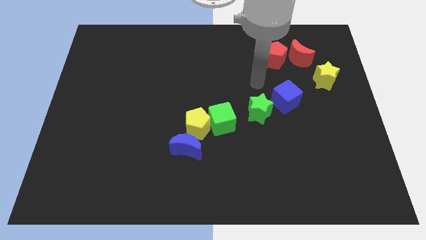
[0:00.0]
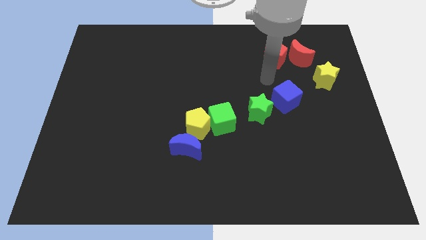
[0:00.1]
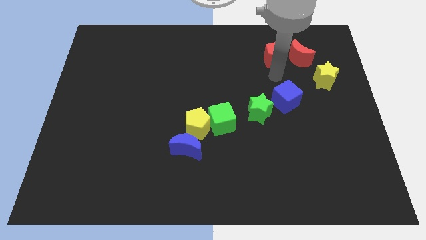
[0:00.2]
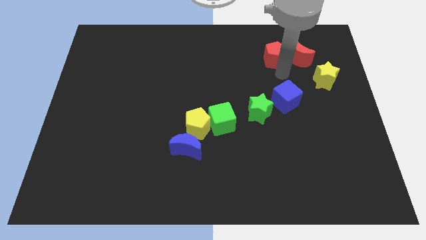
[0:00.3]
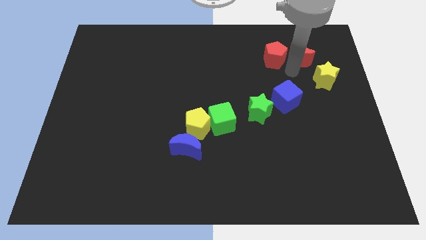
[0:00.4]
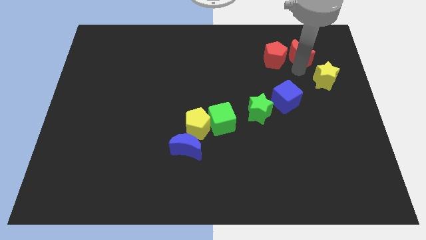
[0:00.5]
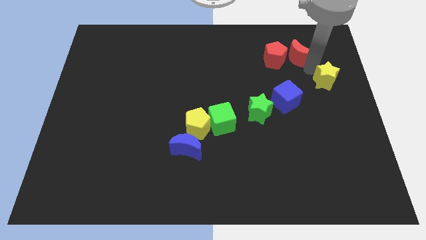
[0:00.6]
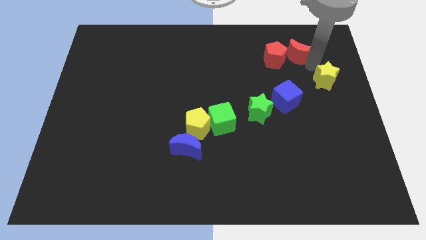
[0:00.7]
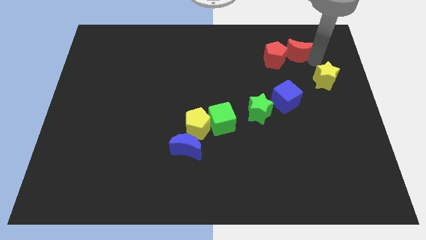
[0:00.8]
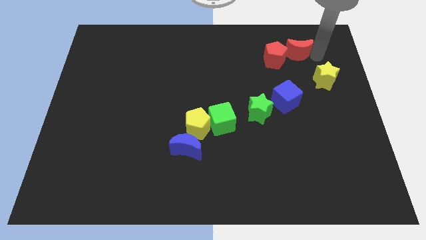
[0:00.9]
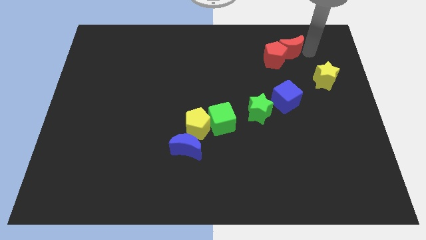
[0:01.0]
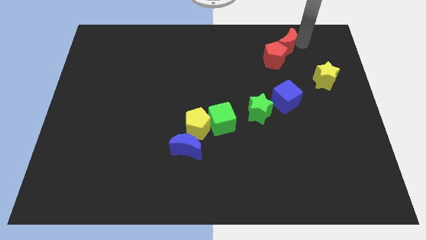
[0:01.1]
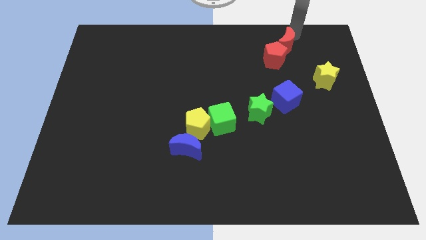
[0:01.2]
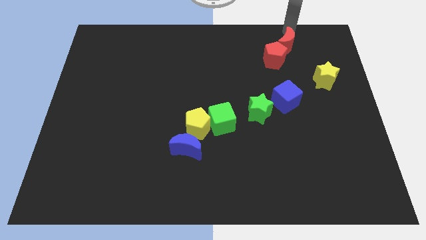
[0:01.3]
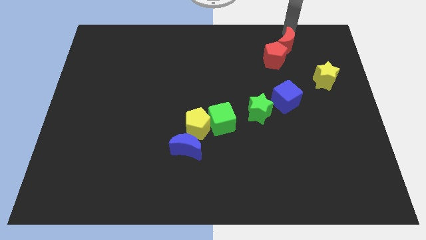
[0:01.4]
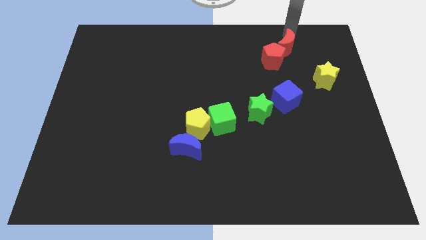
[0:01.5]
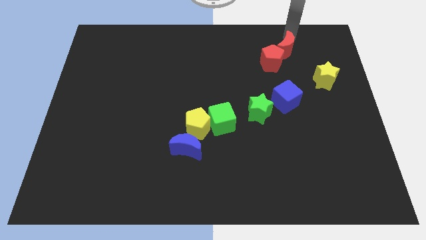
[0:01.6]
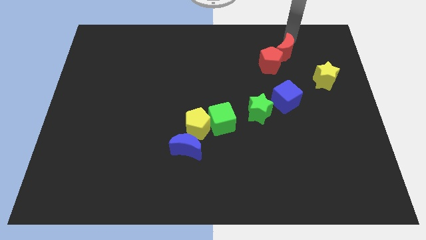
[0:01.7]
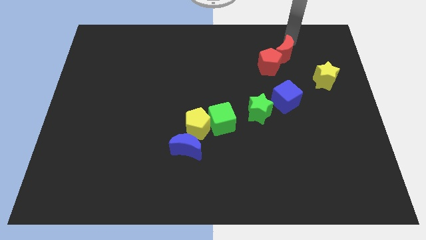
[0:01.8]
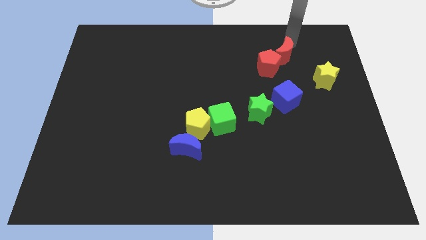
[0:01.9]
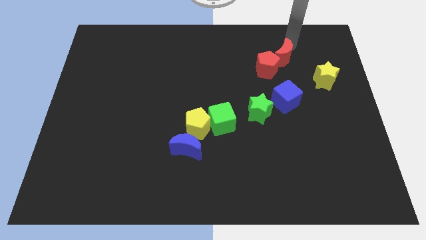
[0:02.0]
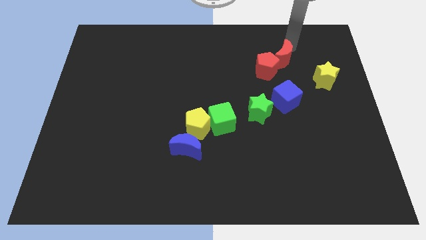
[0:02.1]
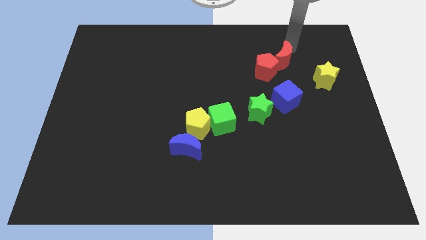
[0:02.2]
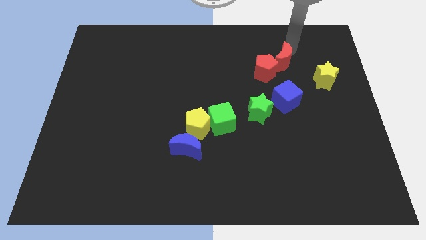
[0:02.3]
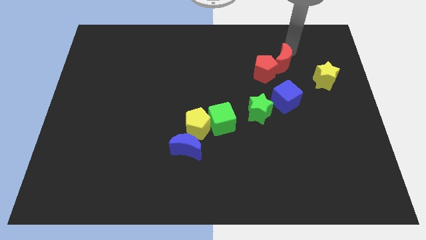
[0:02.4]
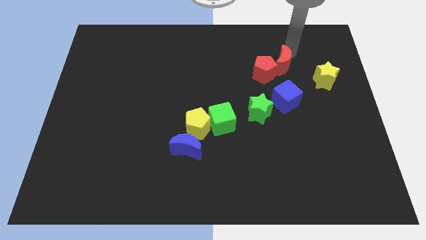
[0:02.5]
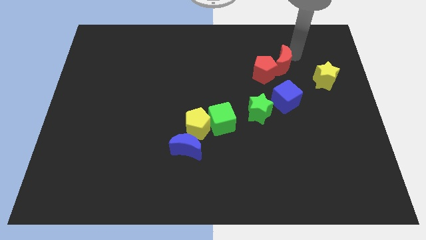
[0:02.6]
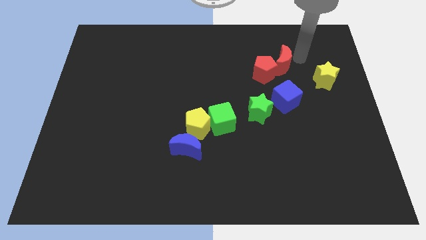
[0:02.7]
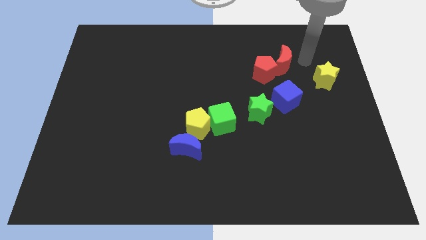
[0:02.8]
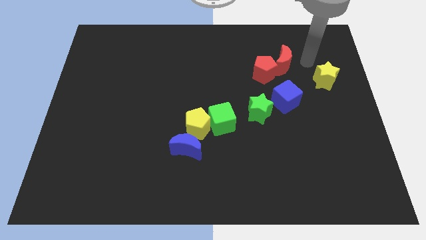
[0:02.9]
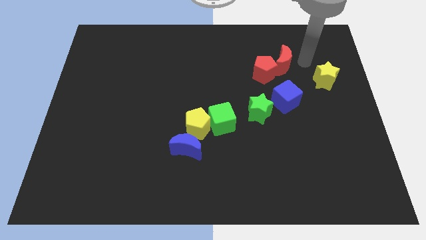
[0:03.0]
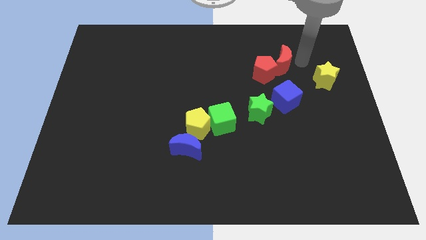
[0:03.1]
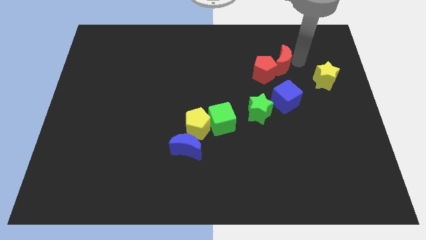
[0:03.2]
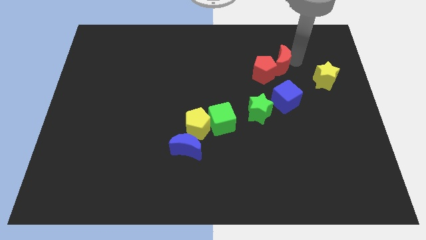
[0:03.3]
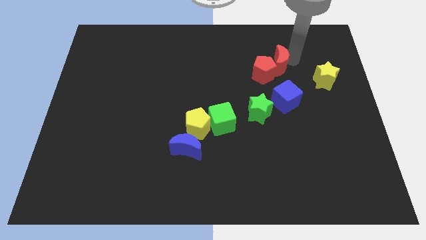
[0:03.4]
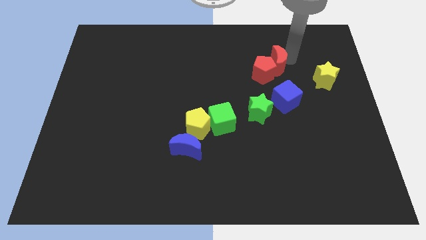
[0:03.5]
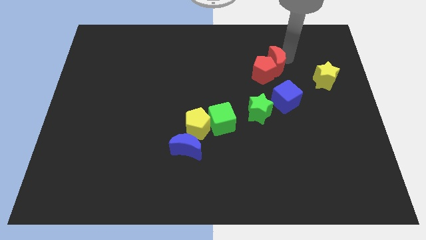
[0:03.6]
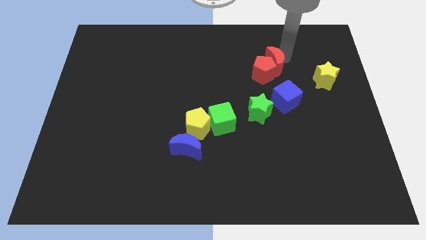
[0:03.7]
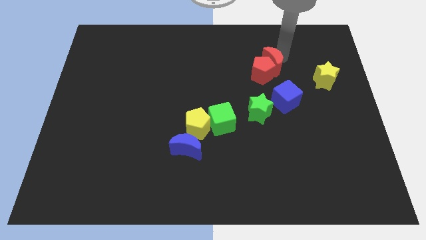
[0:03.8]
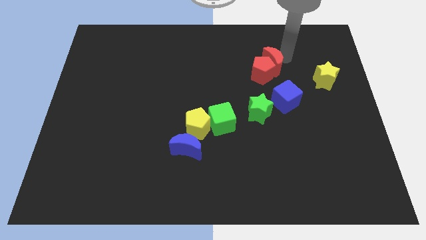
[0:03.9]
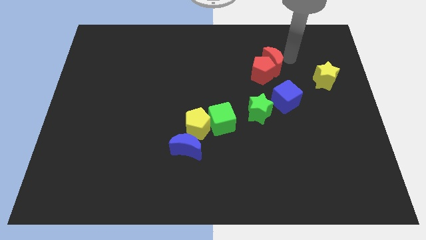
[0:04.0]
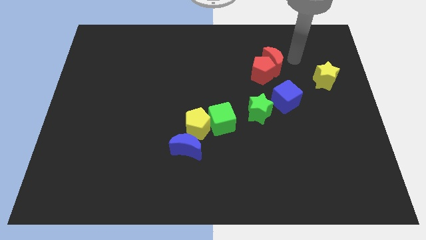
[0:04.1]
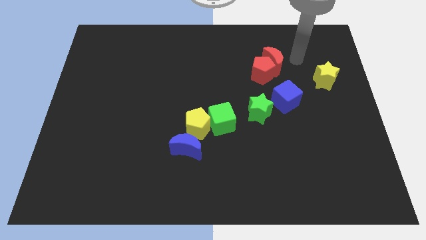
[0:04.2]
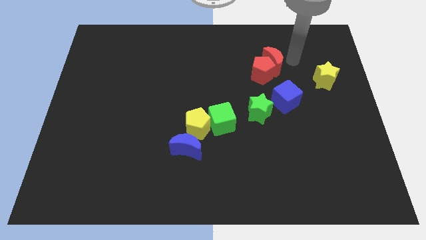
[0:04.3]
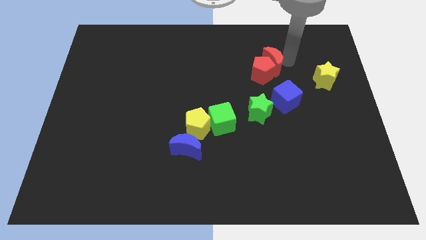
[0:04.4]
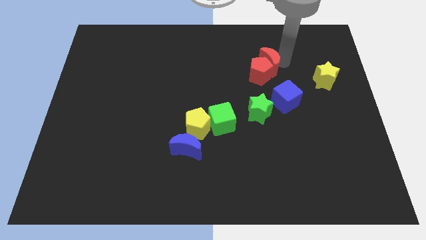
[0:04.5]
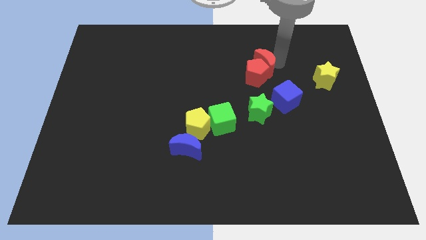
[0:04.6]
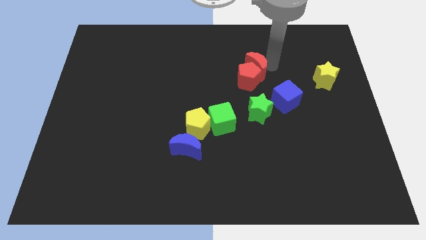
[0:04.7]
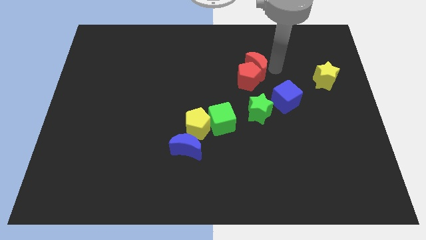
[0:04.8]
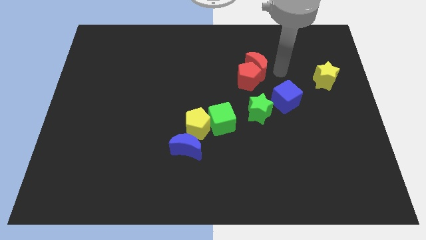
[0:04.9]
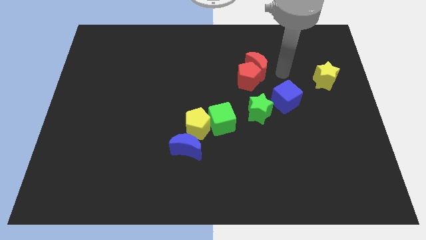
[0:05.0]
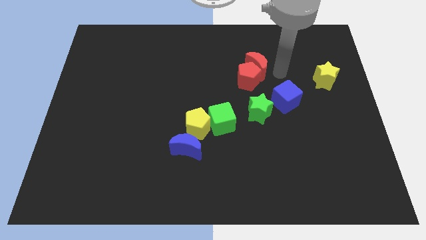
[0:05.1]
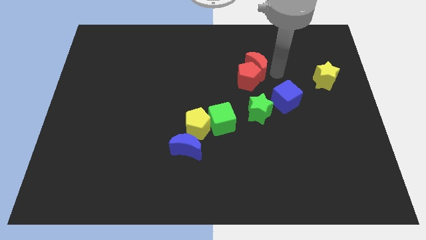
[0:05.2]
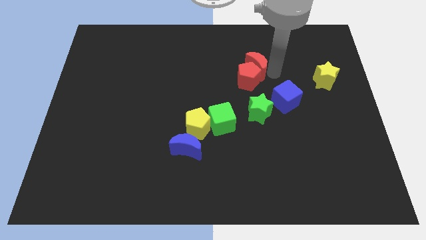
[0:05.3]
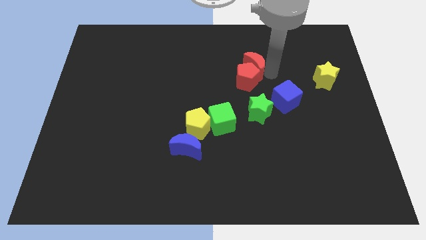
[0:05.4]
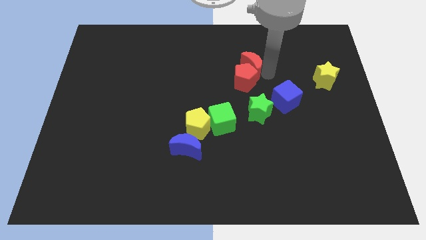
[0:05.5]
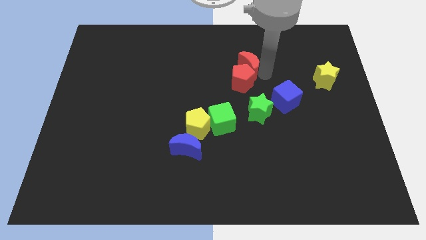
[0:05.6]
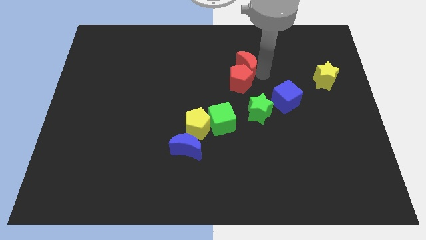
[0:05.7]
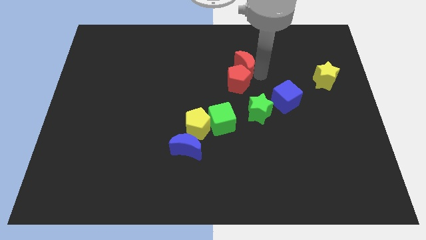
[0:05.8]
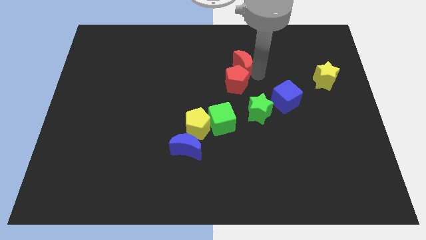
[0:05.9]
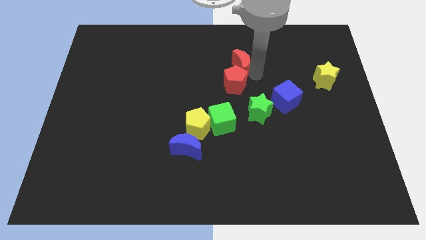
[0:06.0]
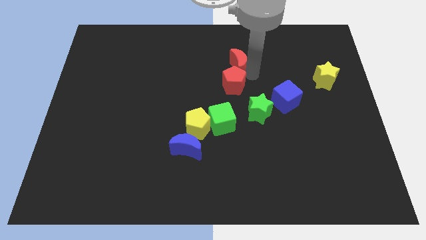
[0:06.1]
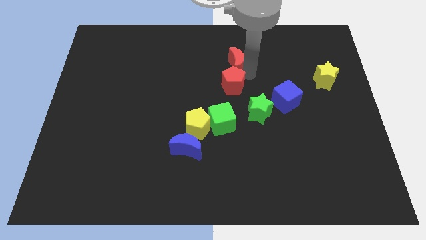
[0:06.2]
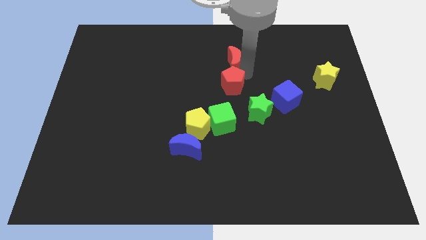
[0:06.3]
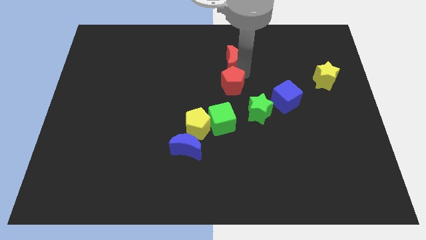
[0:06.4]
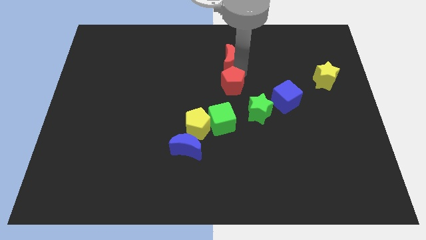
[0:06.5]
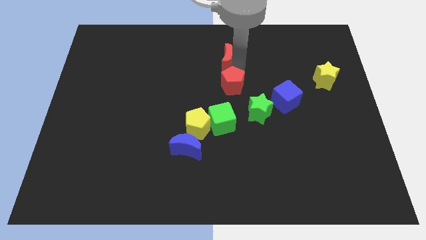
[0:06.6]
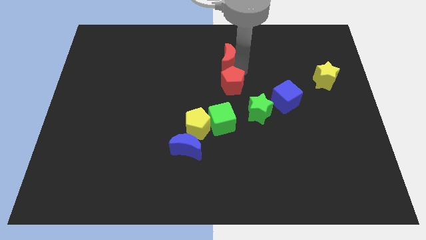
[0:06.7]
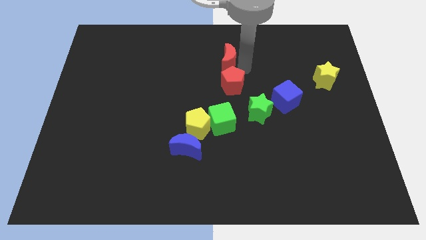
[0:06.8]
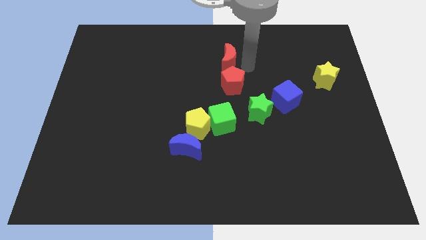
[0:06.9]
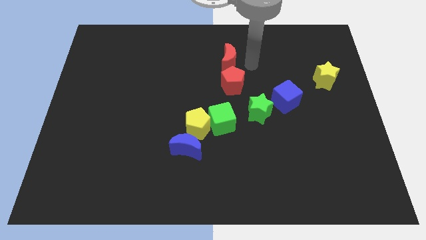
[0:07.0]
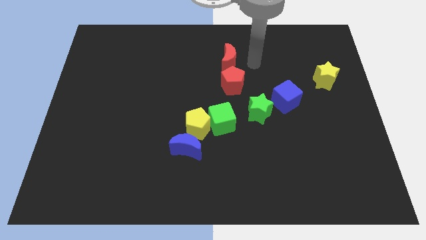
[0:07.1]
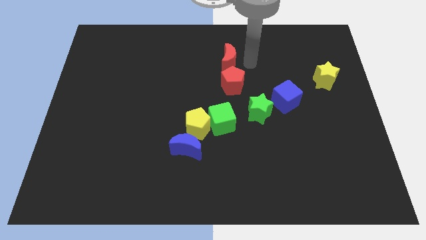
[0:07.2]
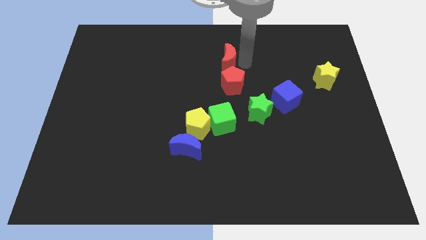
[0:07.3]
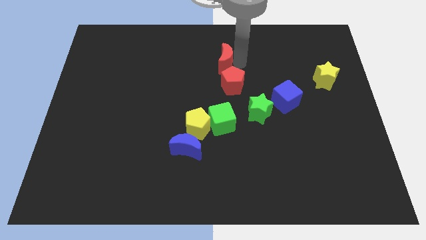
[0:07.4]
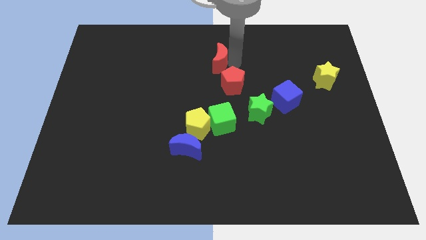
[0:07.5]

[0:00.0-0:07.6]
push the red moon left
